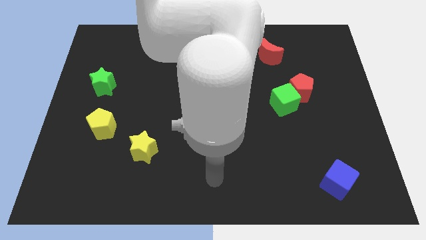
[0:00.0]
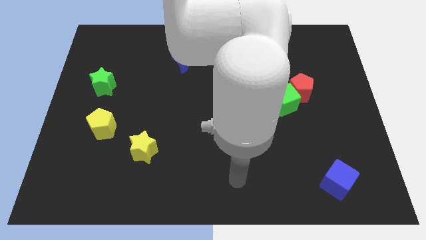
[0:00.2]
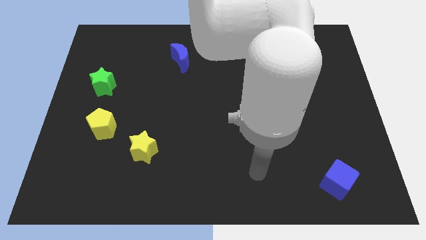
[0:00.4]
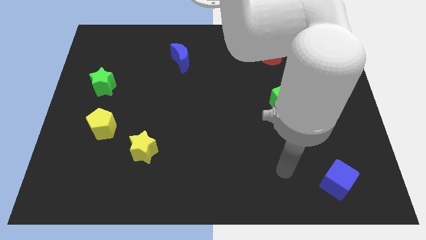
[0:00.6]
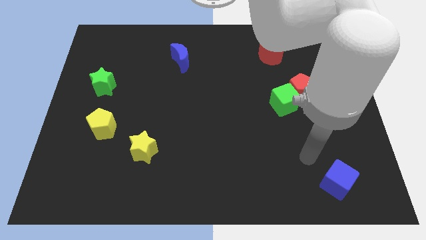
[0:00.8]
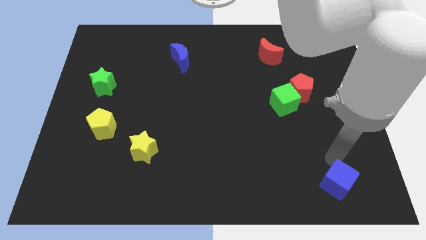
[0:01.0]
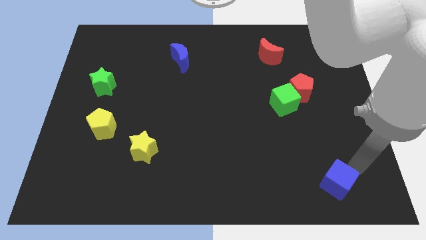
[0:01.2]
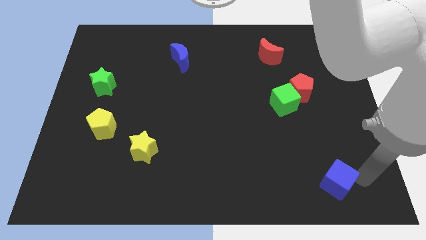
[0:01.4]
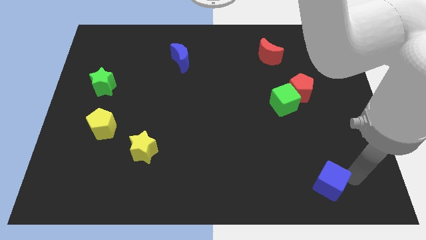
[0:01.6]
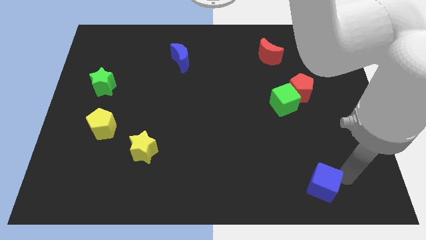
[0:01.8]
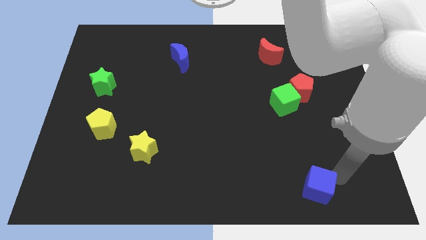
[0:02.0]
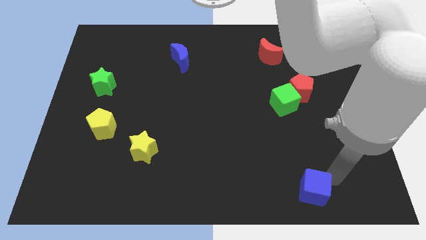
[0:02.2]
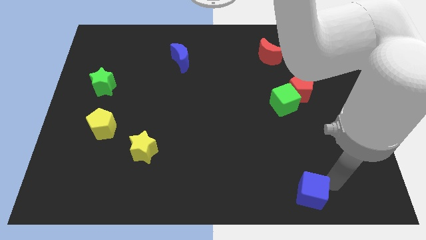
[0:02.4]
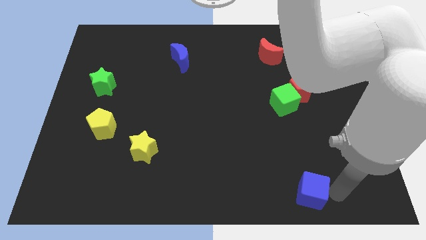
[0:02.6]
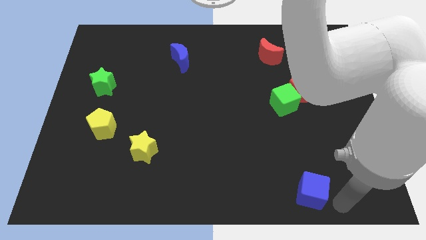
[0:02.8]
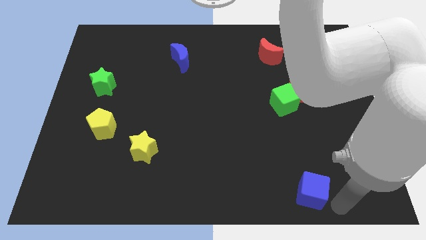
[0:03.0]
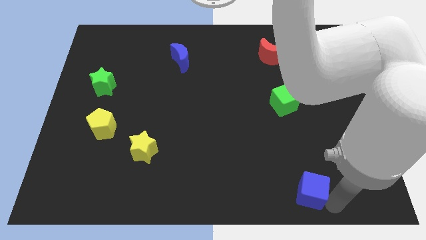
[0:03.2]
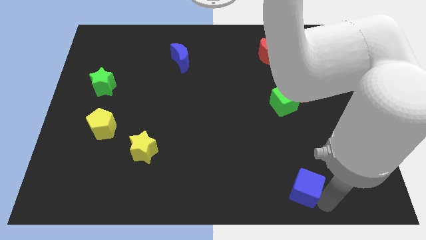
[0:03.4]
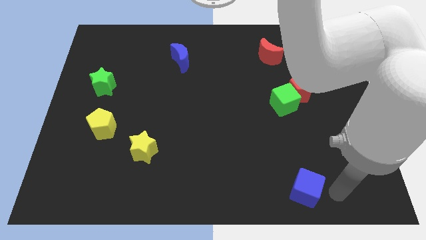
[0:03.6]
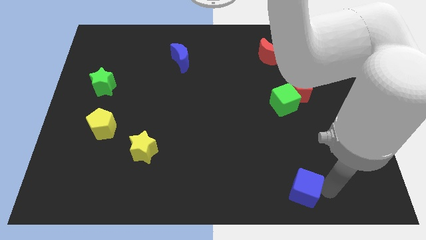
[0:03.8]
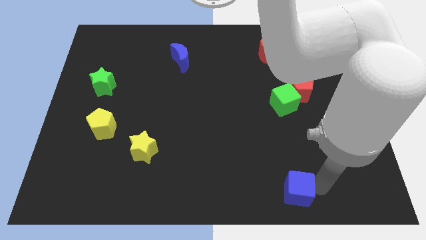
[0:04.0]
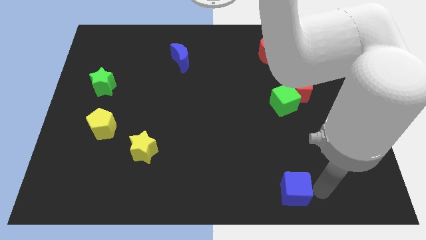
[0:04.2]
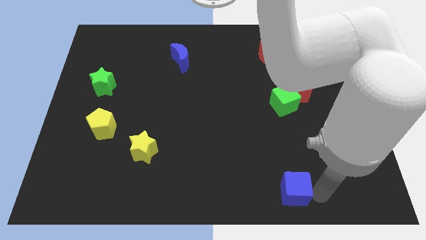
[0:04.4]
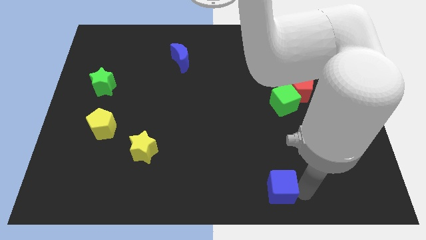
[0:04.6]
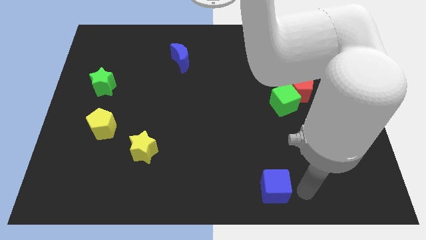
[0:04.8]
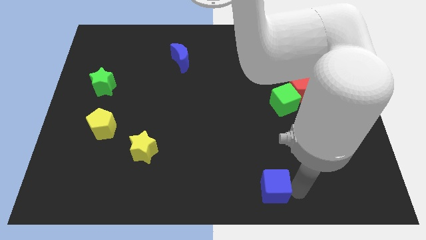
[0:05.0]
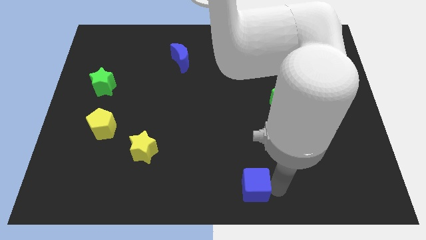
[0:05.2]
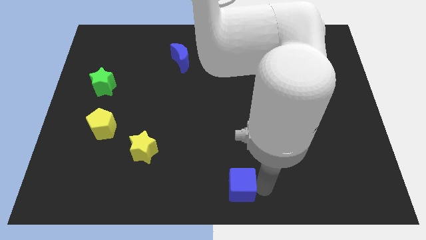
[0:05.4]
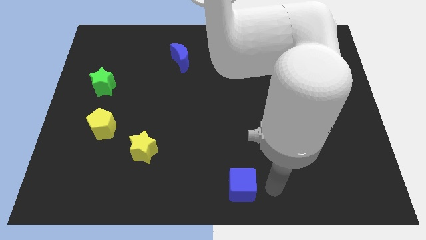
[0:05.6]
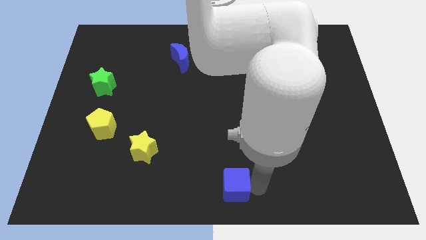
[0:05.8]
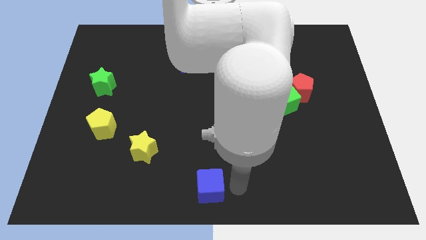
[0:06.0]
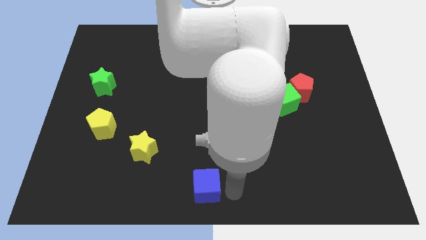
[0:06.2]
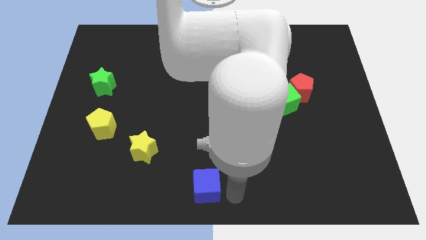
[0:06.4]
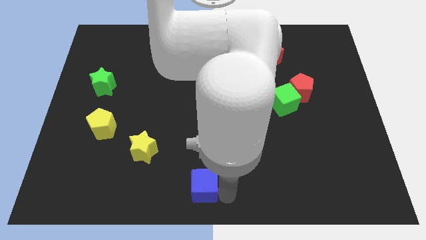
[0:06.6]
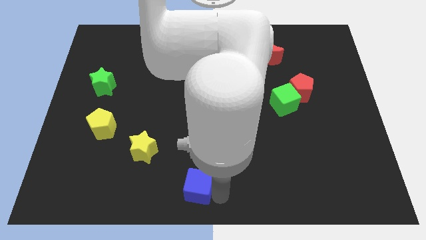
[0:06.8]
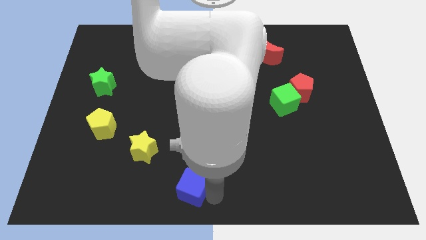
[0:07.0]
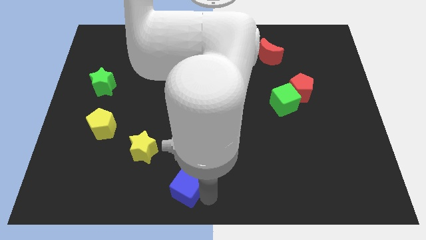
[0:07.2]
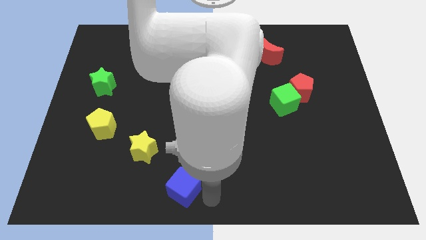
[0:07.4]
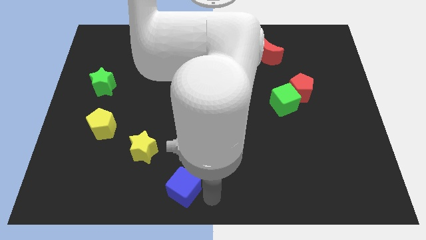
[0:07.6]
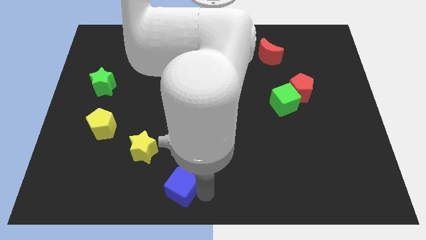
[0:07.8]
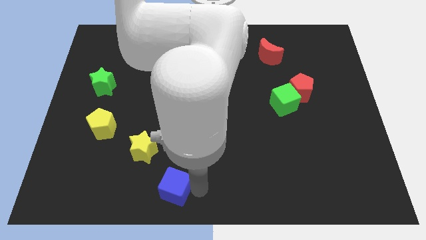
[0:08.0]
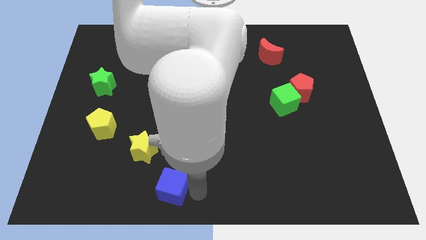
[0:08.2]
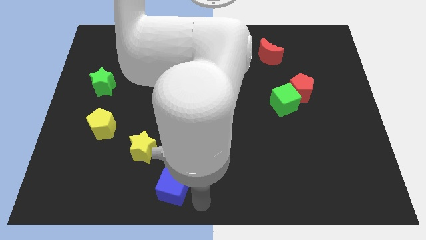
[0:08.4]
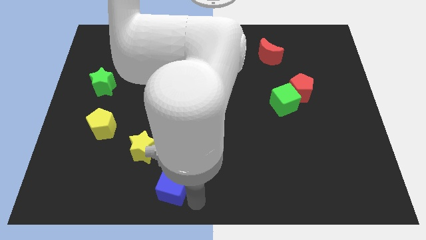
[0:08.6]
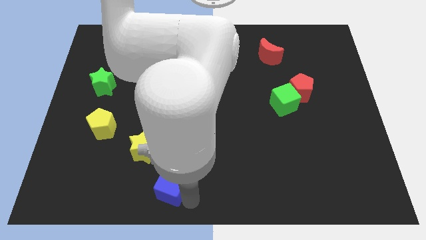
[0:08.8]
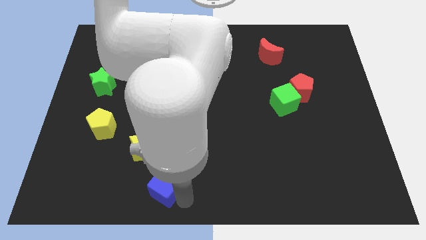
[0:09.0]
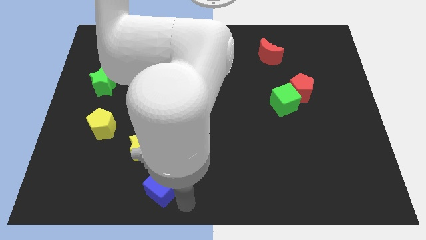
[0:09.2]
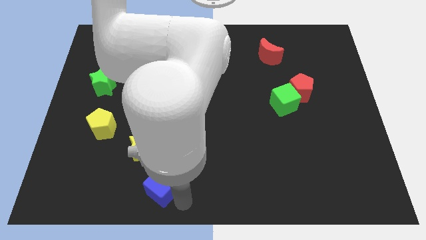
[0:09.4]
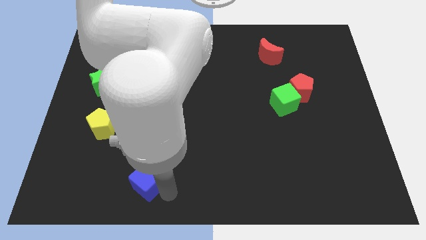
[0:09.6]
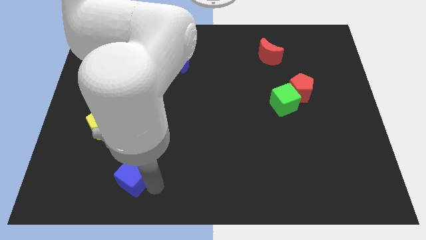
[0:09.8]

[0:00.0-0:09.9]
push the blue cube diagonally down and to the left of the yellow star

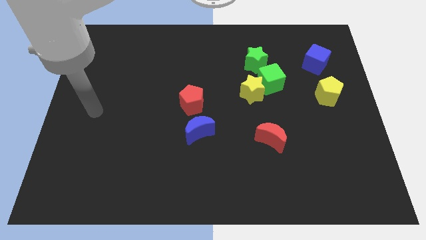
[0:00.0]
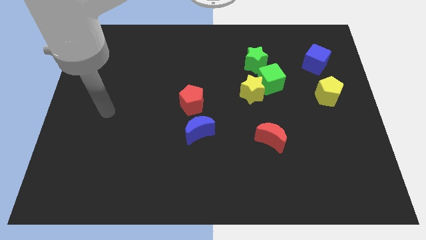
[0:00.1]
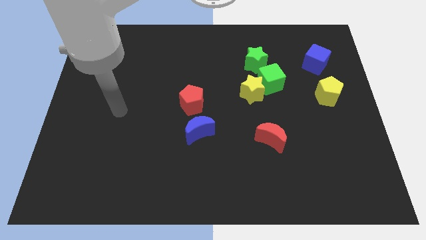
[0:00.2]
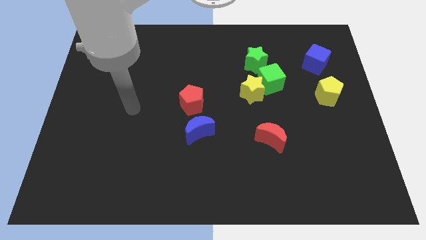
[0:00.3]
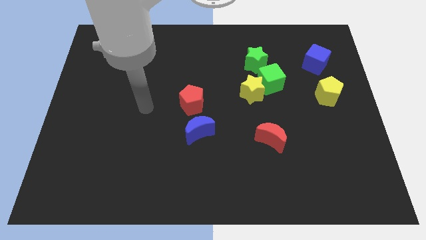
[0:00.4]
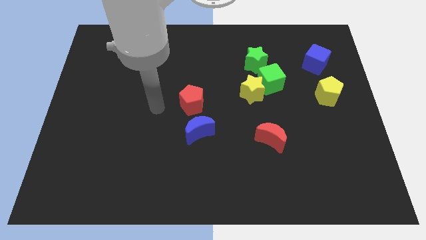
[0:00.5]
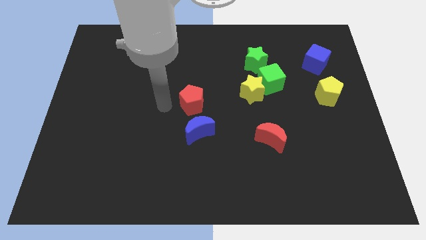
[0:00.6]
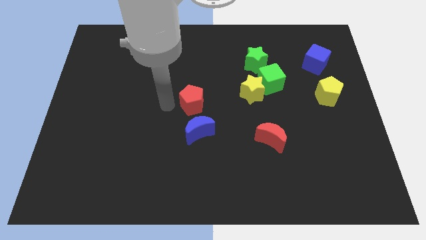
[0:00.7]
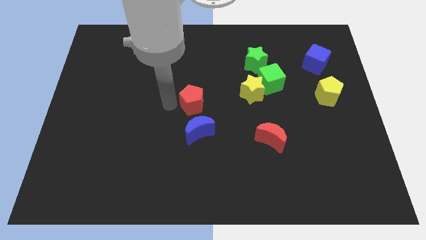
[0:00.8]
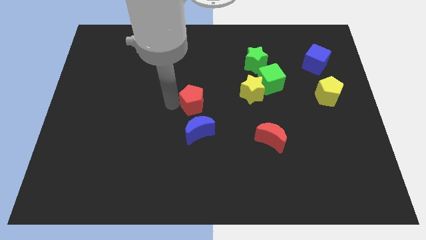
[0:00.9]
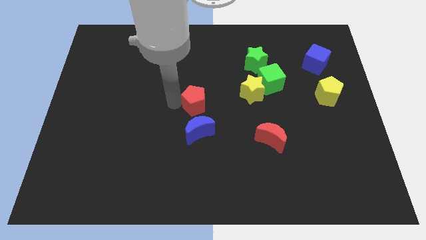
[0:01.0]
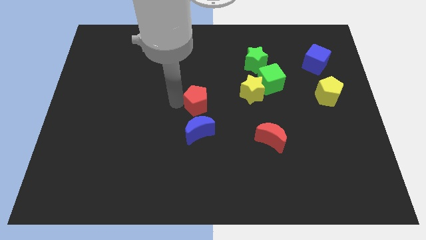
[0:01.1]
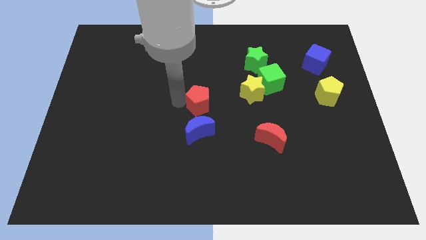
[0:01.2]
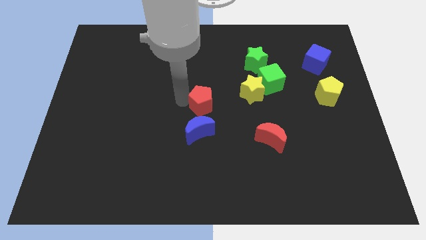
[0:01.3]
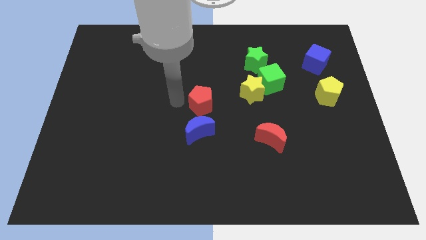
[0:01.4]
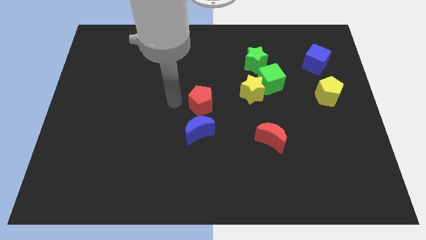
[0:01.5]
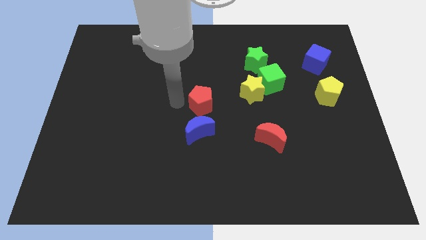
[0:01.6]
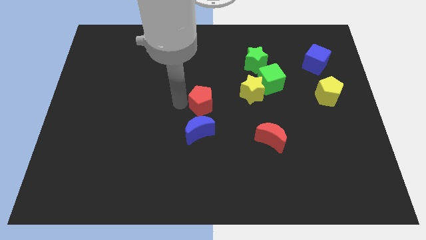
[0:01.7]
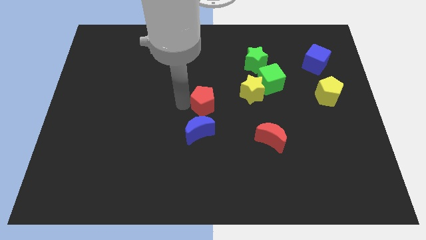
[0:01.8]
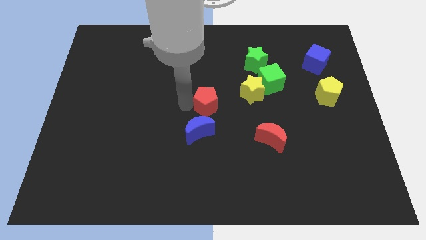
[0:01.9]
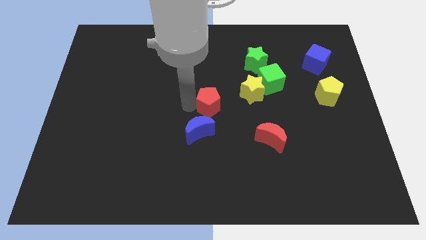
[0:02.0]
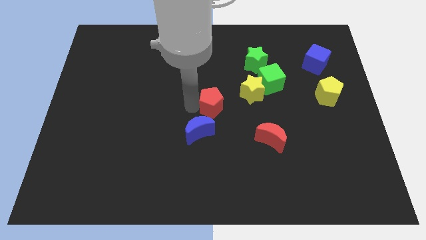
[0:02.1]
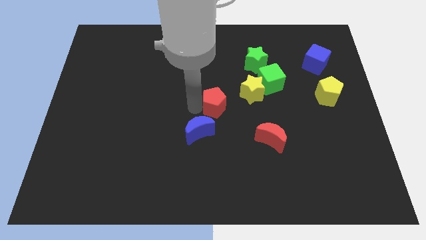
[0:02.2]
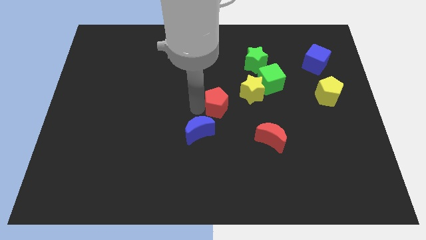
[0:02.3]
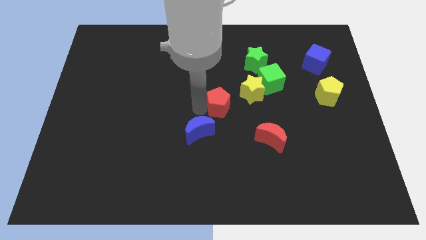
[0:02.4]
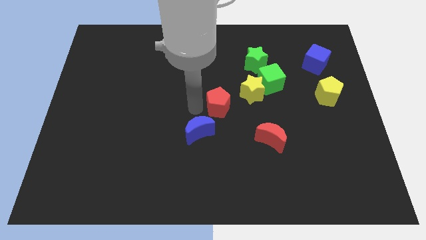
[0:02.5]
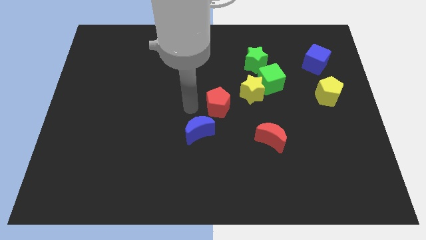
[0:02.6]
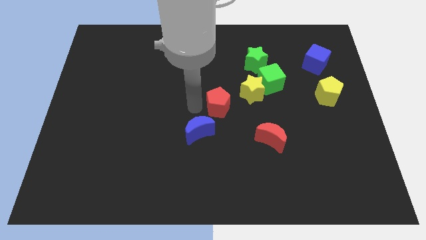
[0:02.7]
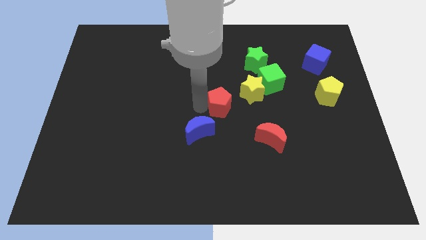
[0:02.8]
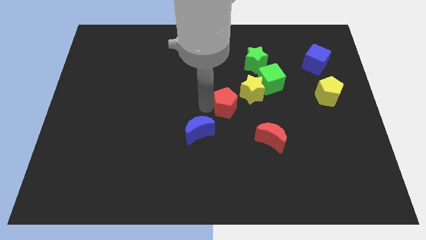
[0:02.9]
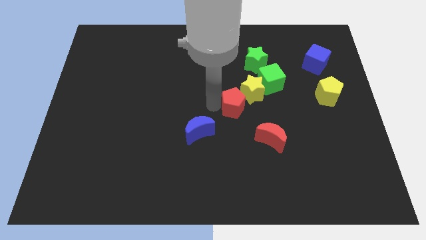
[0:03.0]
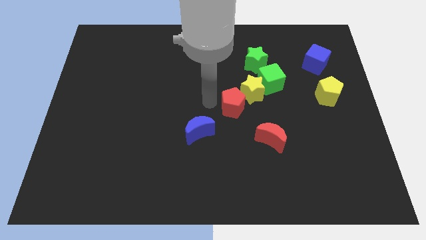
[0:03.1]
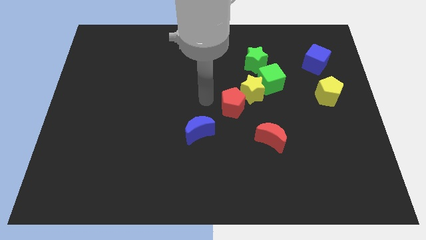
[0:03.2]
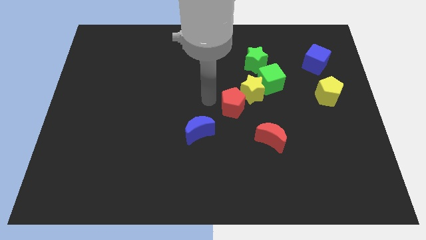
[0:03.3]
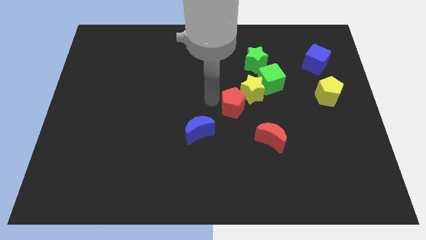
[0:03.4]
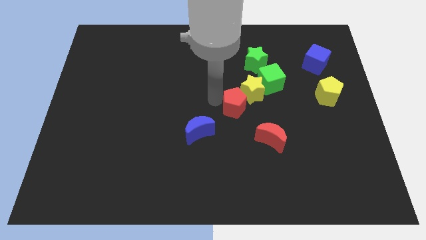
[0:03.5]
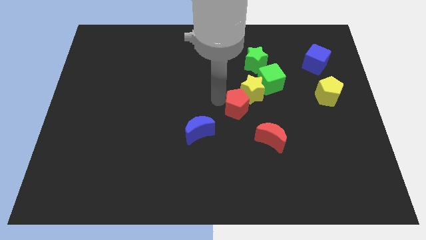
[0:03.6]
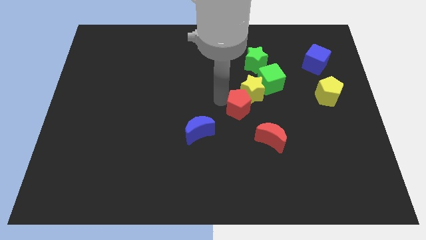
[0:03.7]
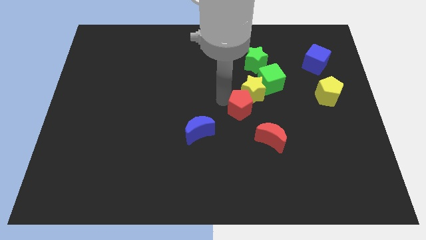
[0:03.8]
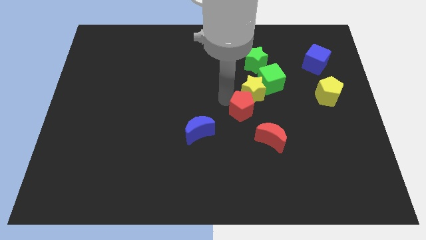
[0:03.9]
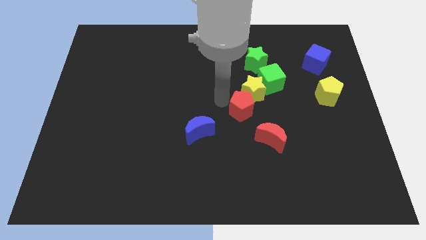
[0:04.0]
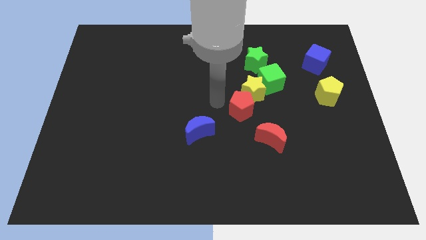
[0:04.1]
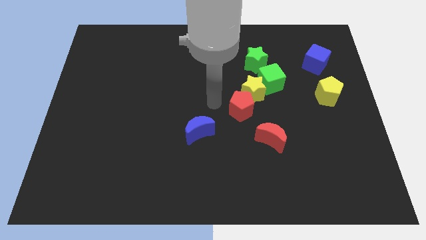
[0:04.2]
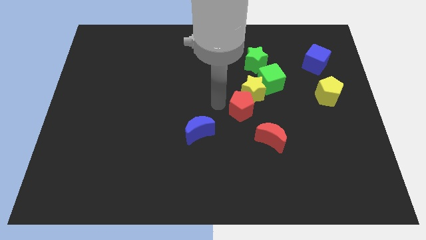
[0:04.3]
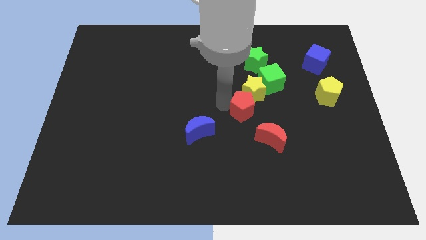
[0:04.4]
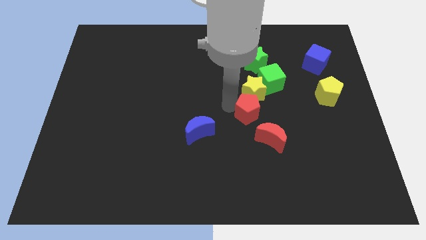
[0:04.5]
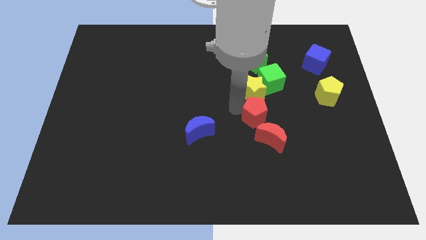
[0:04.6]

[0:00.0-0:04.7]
push the red pentagon below the green cube
